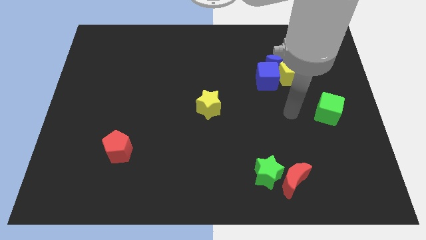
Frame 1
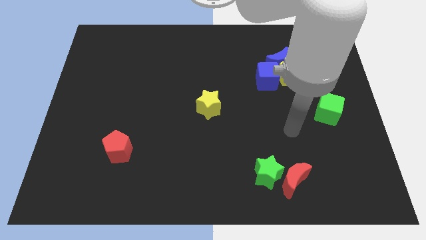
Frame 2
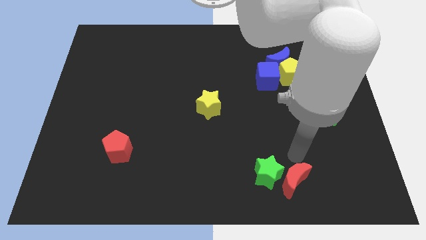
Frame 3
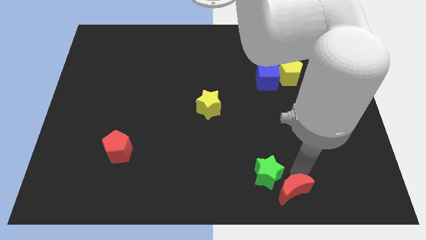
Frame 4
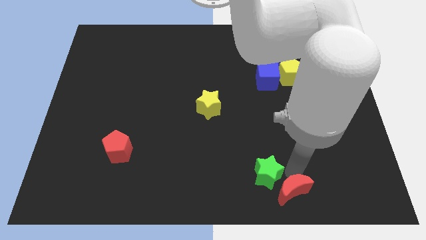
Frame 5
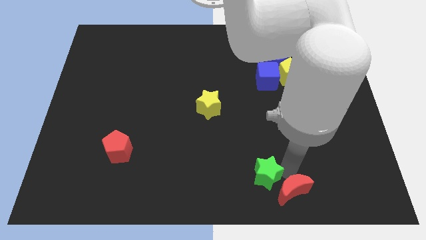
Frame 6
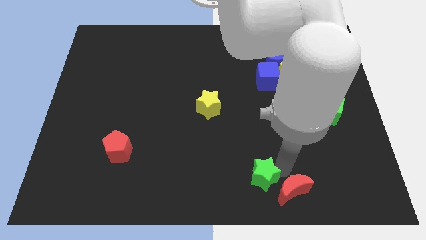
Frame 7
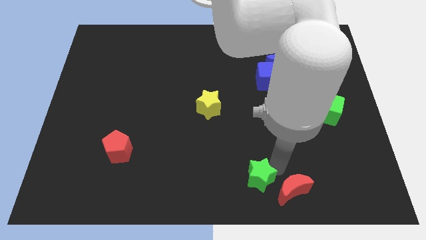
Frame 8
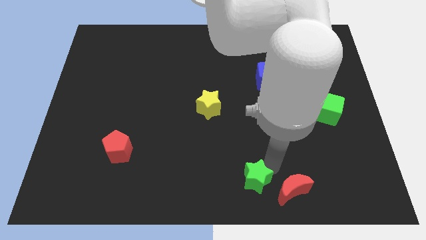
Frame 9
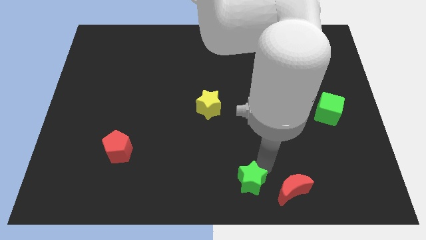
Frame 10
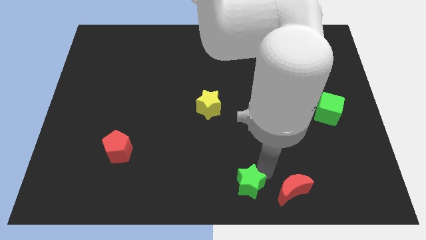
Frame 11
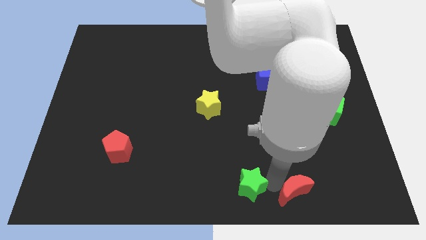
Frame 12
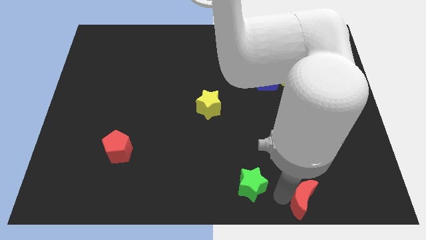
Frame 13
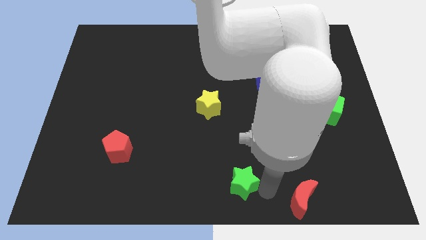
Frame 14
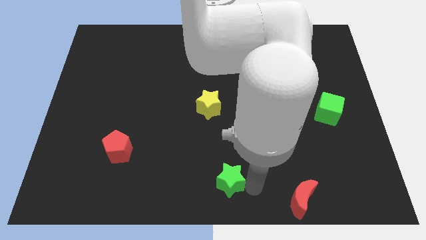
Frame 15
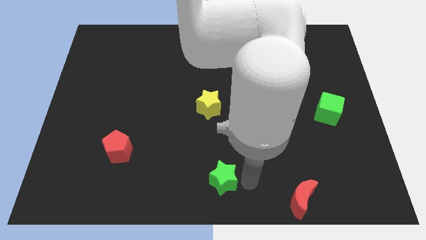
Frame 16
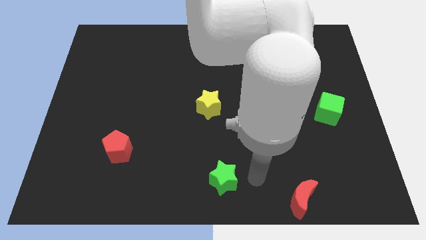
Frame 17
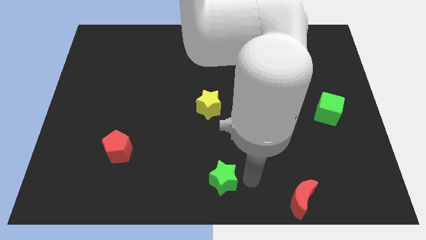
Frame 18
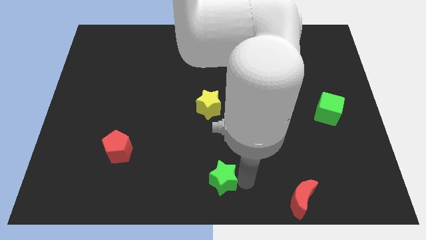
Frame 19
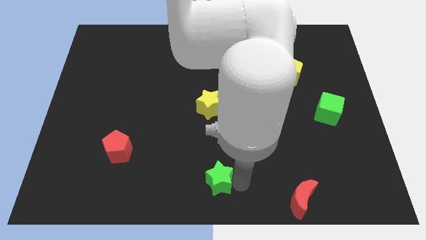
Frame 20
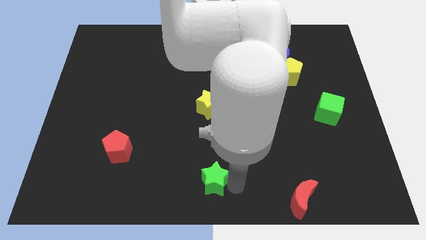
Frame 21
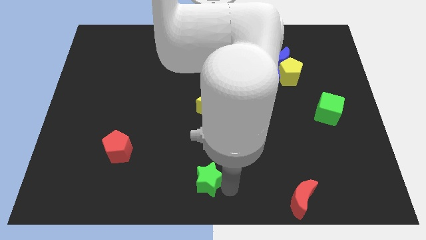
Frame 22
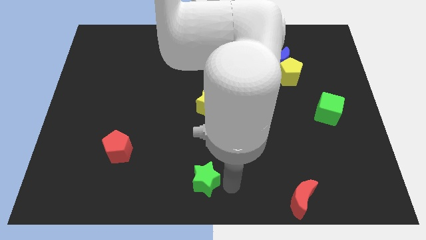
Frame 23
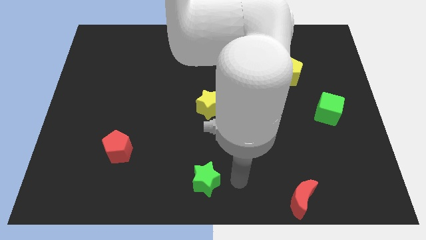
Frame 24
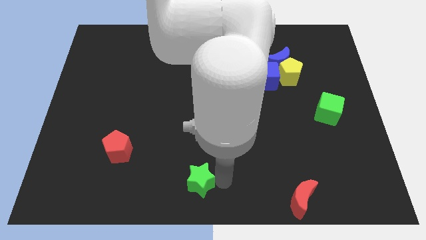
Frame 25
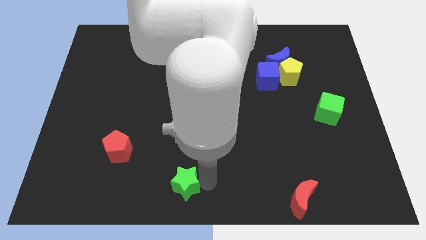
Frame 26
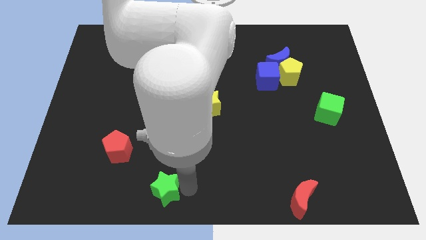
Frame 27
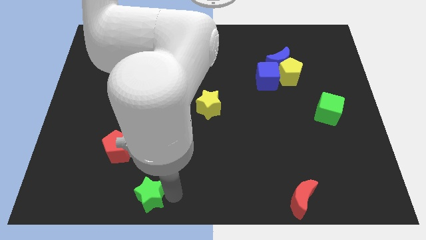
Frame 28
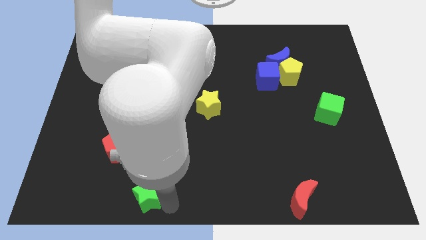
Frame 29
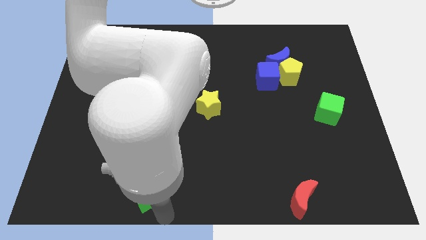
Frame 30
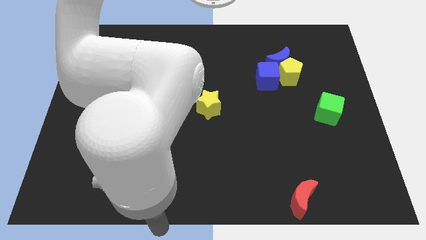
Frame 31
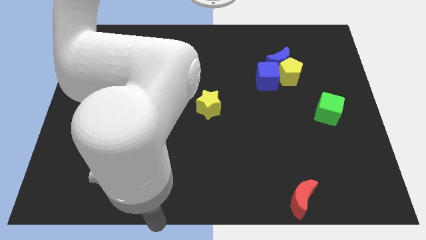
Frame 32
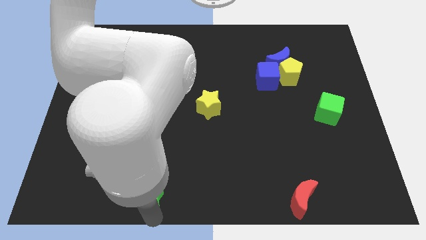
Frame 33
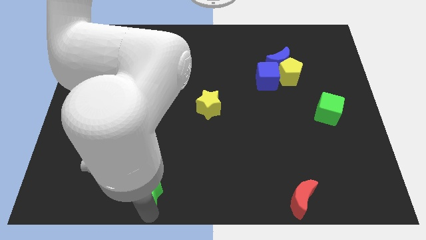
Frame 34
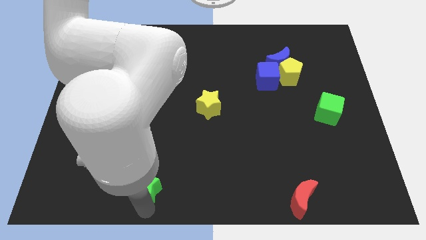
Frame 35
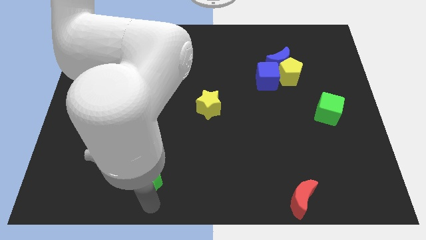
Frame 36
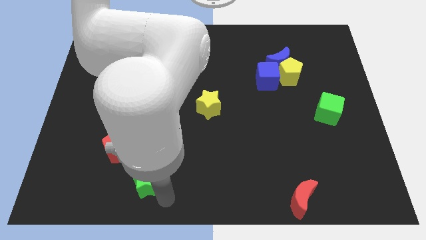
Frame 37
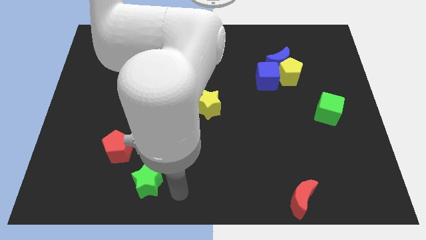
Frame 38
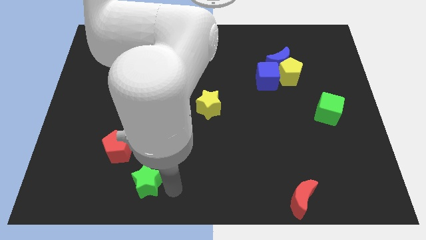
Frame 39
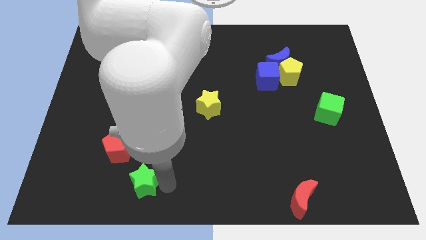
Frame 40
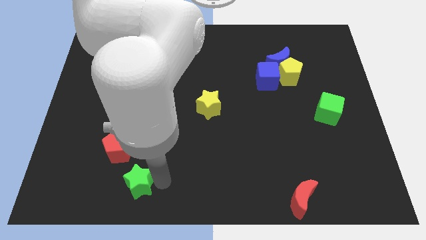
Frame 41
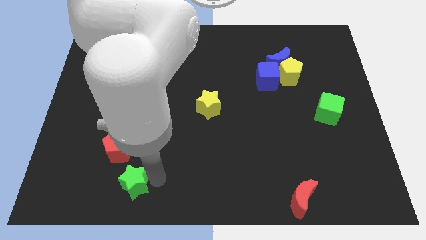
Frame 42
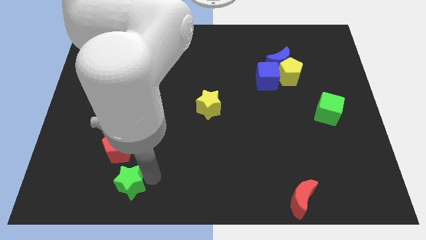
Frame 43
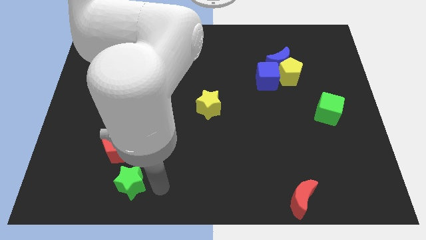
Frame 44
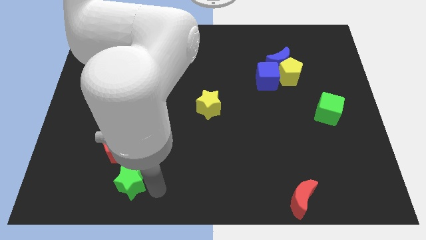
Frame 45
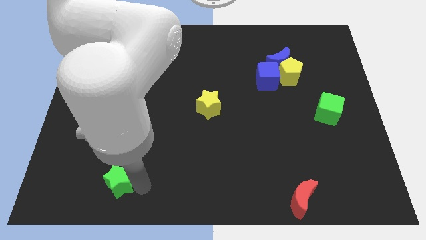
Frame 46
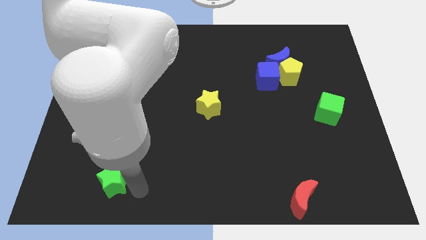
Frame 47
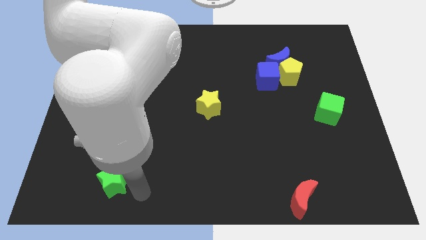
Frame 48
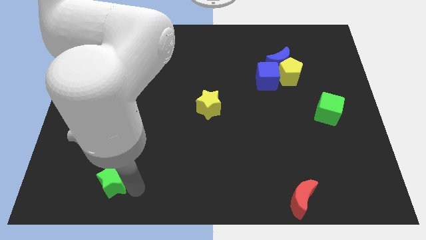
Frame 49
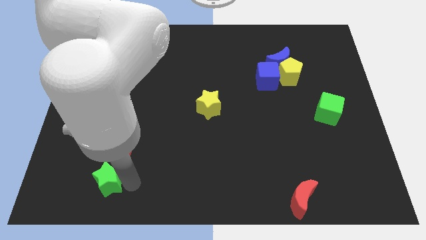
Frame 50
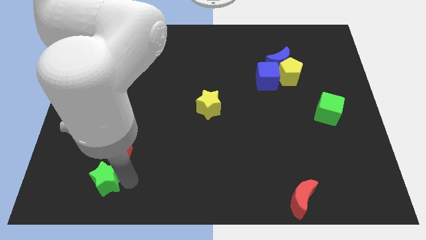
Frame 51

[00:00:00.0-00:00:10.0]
slide the green star to the bottom left of the red pentagon

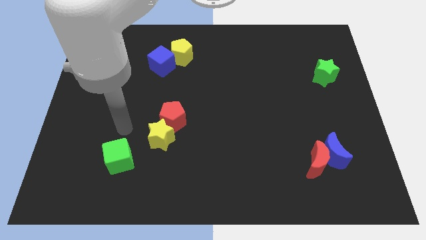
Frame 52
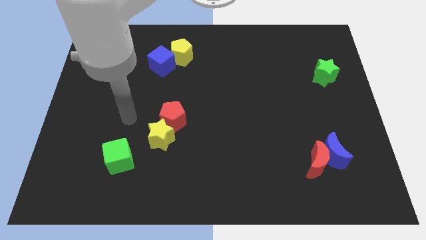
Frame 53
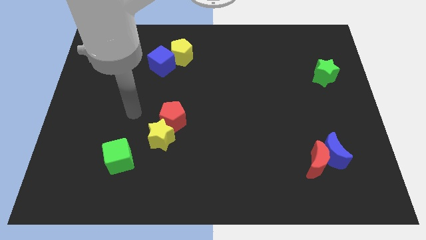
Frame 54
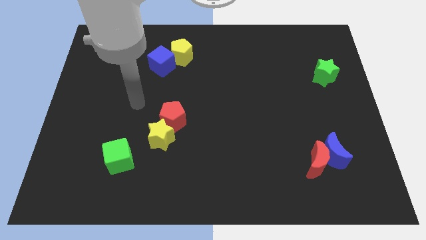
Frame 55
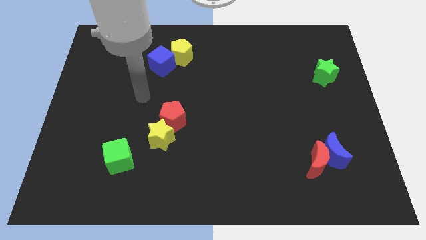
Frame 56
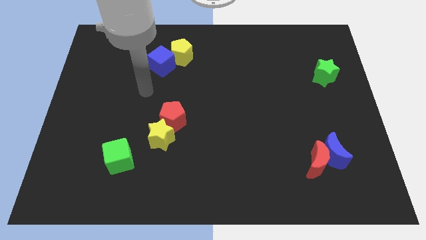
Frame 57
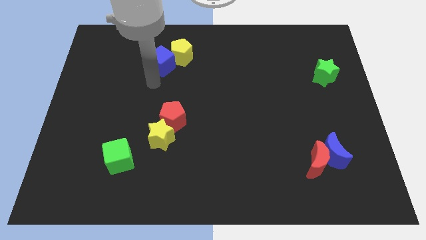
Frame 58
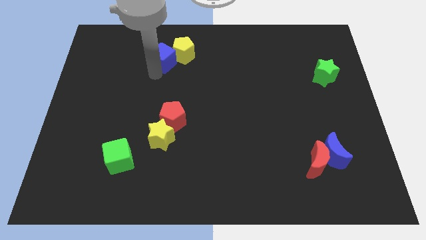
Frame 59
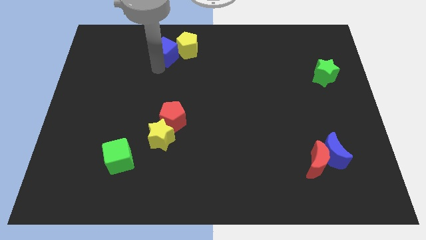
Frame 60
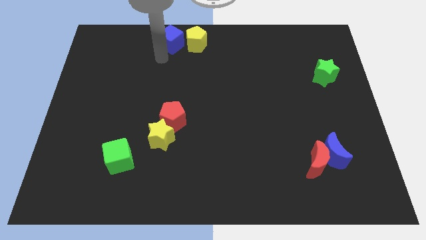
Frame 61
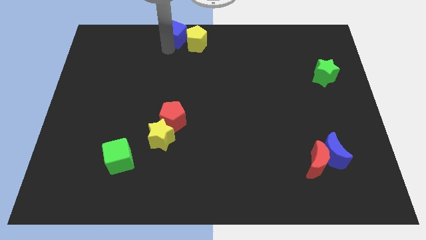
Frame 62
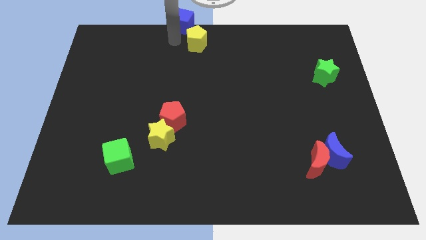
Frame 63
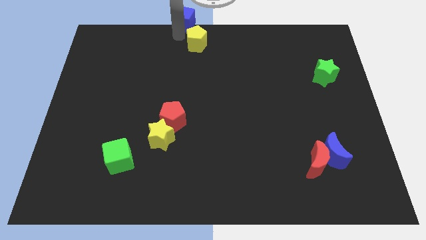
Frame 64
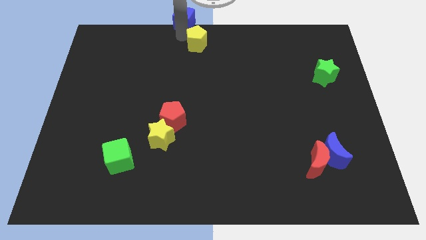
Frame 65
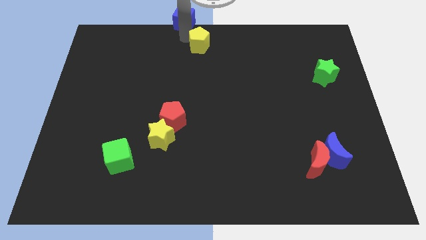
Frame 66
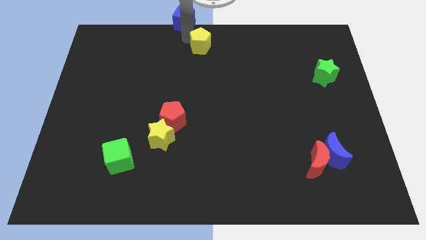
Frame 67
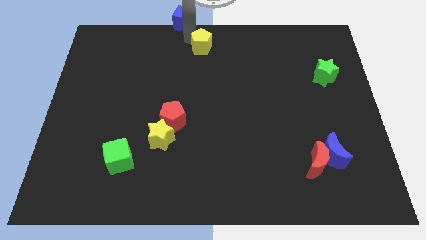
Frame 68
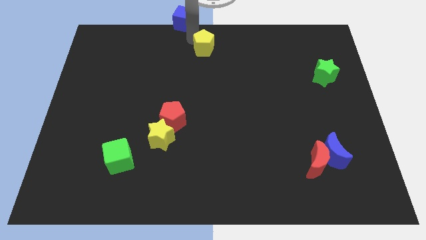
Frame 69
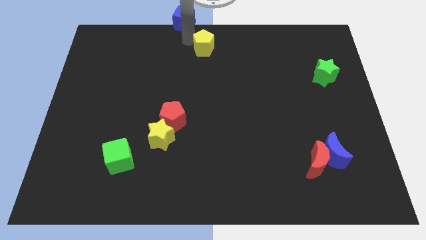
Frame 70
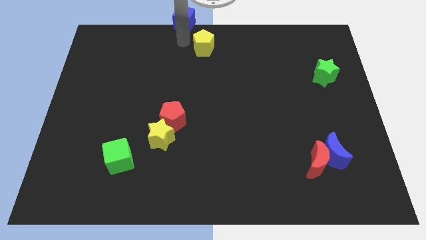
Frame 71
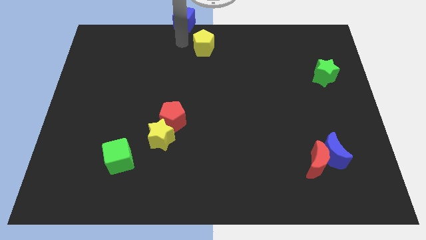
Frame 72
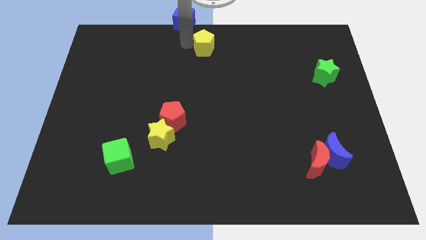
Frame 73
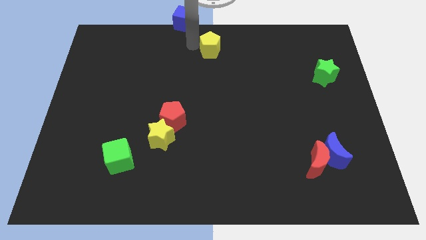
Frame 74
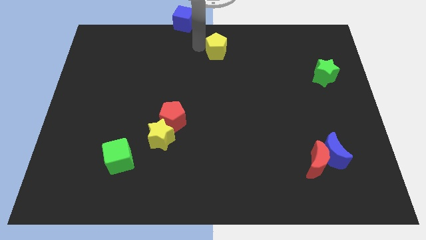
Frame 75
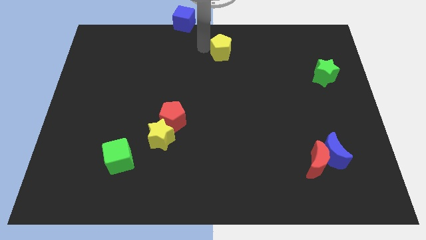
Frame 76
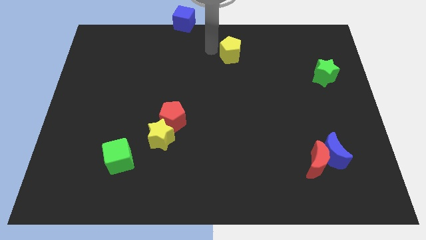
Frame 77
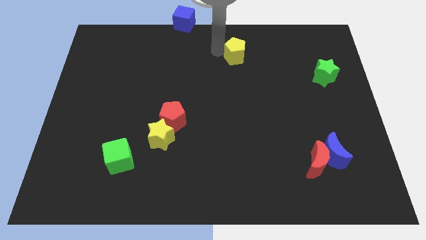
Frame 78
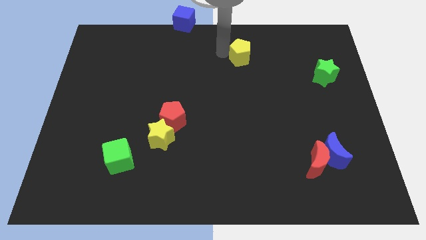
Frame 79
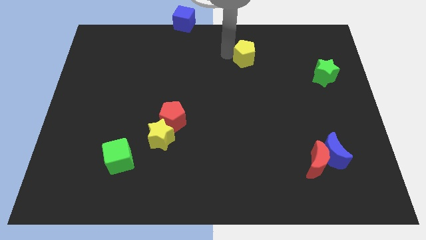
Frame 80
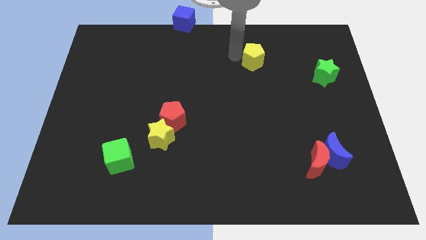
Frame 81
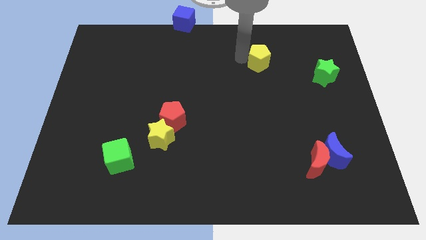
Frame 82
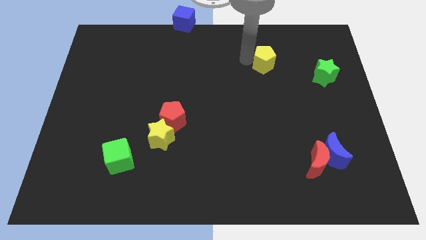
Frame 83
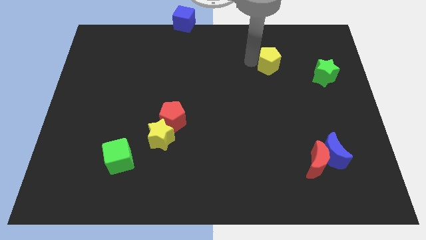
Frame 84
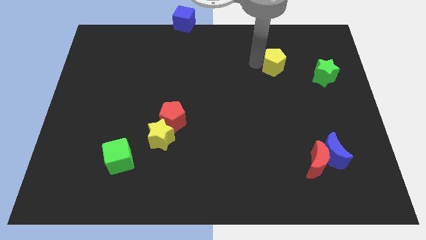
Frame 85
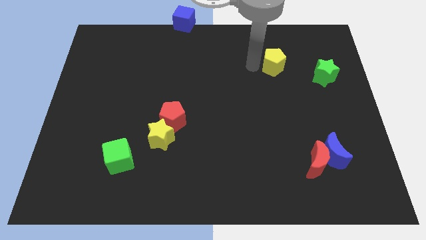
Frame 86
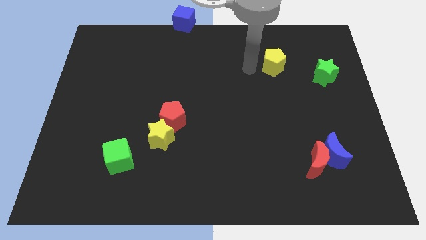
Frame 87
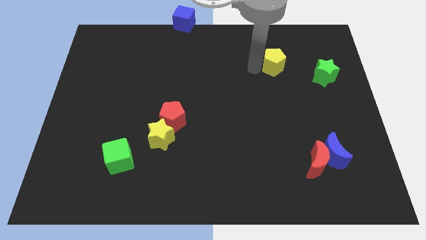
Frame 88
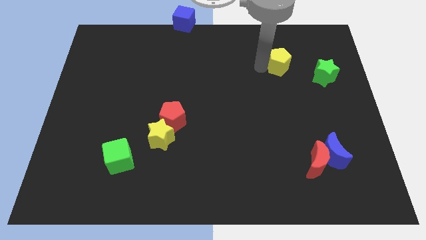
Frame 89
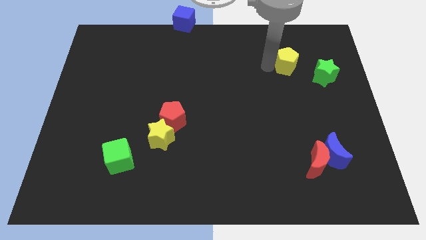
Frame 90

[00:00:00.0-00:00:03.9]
put the yellow pentagon diagonally up and to the left of the green star
